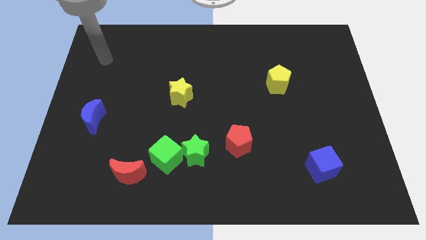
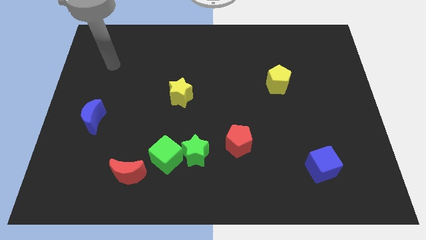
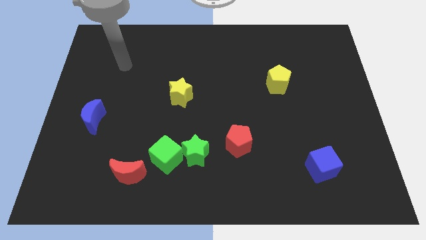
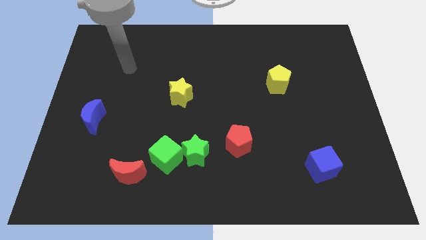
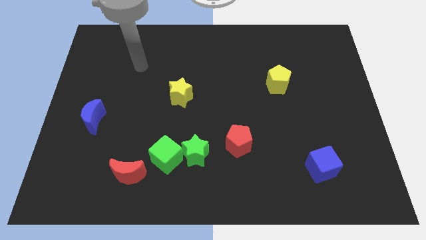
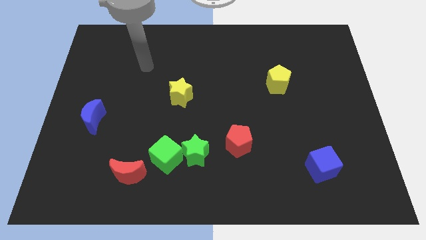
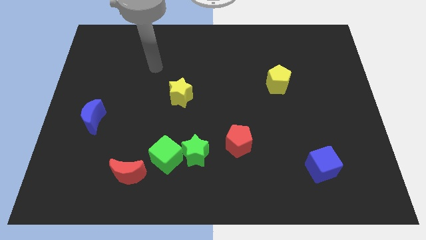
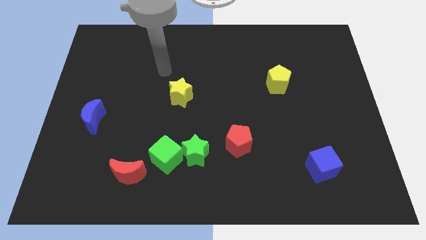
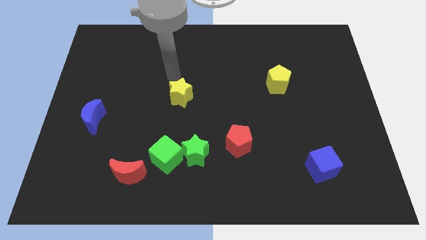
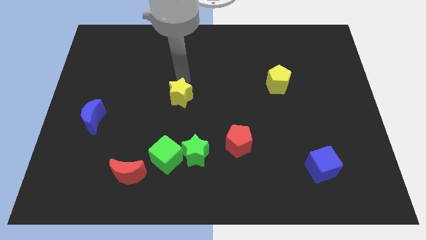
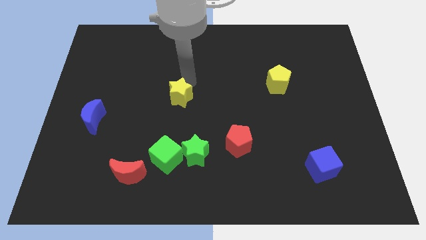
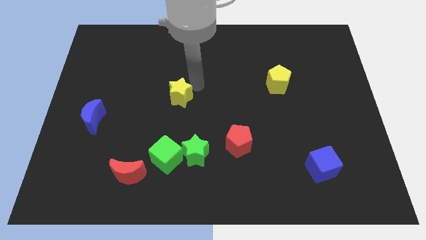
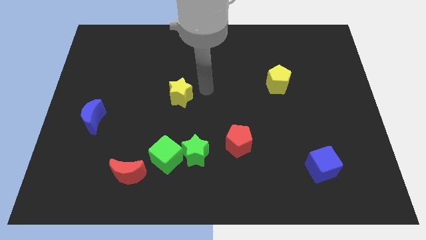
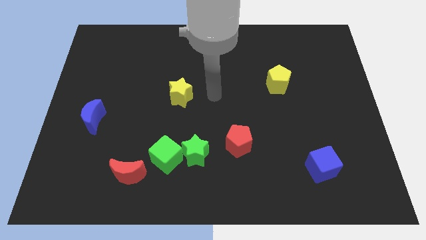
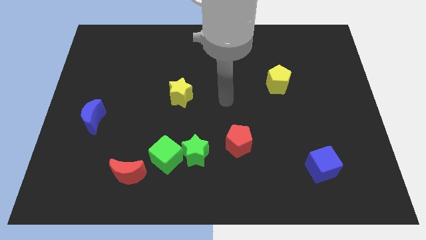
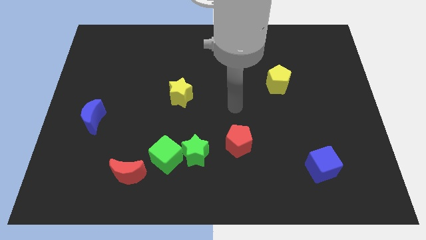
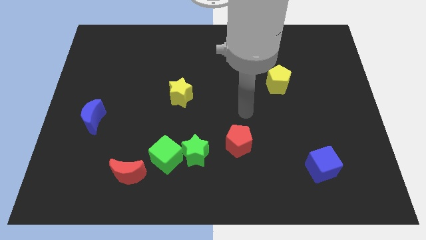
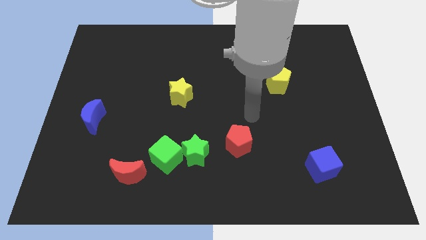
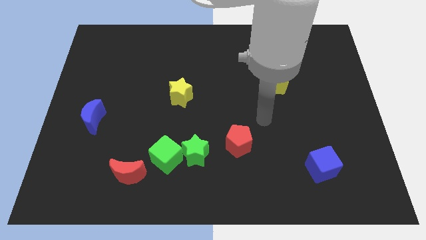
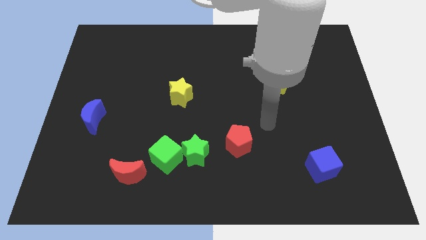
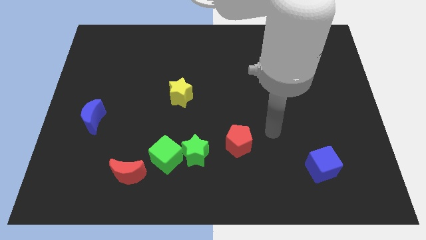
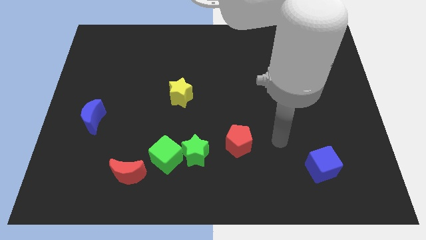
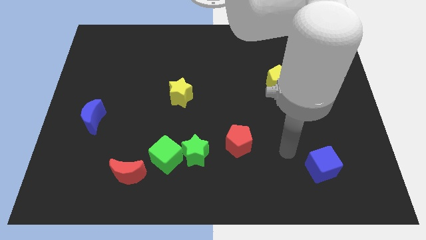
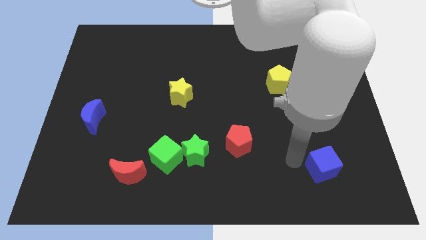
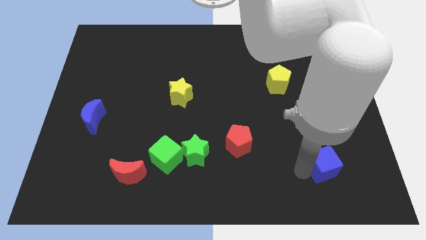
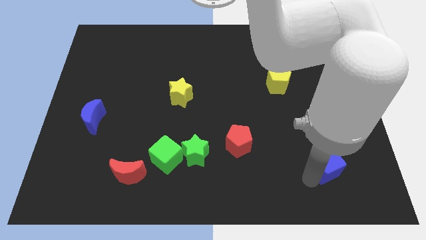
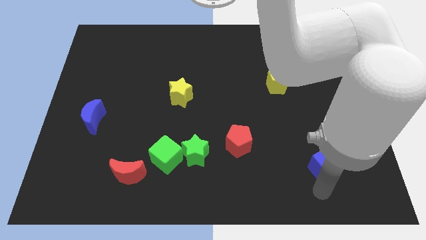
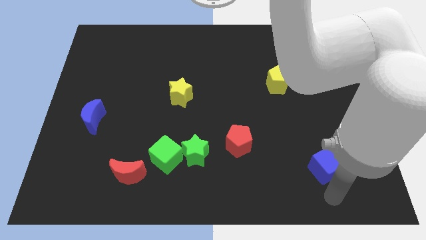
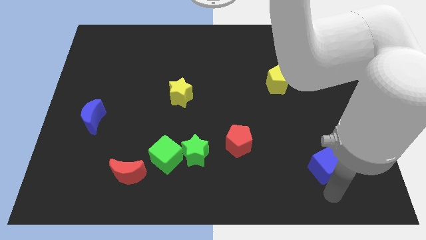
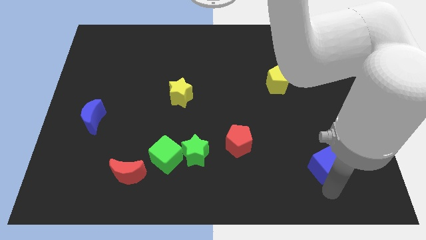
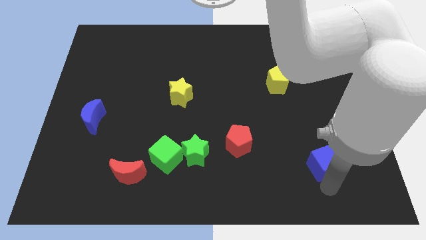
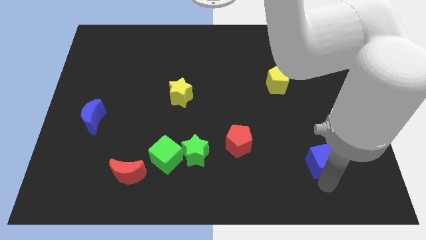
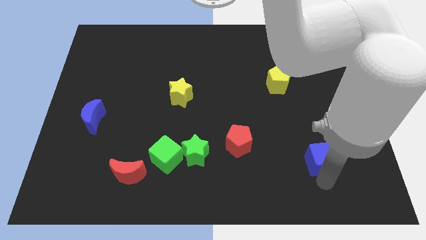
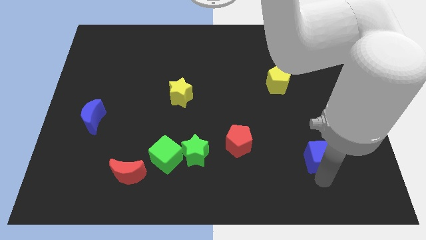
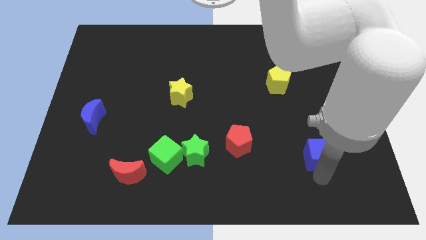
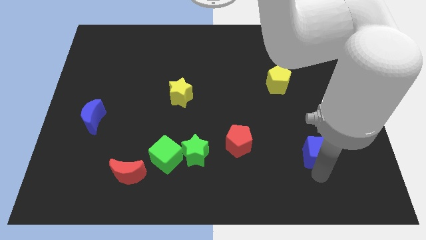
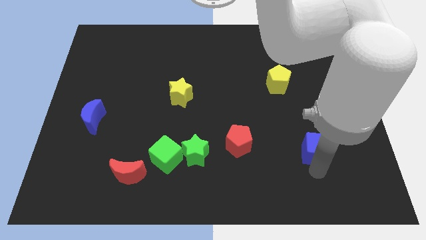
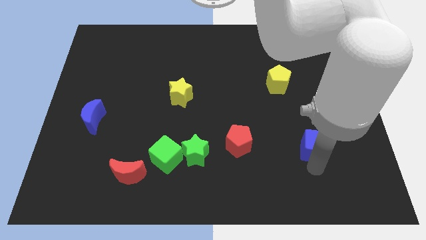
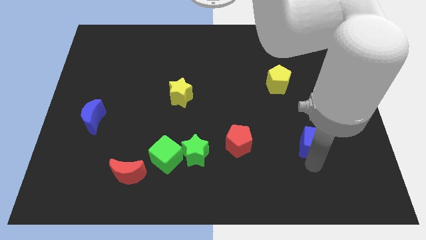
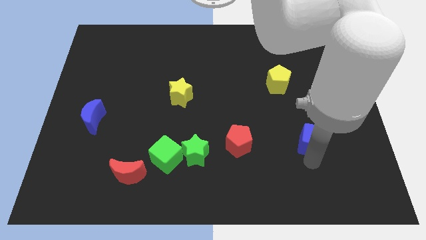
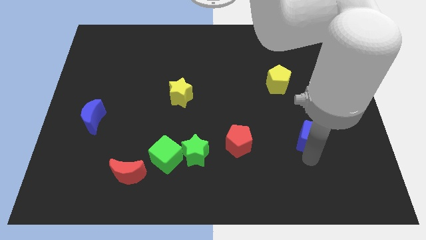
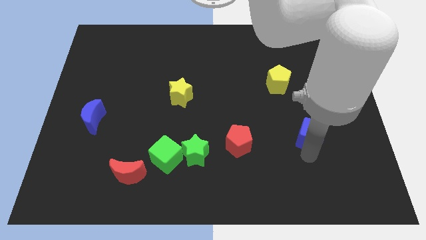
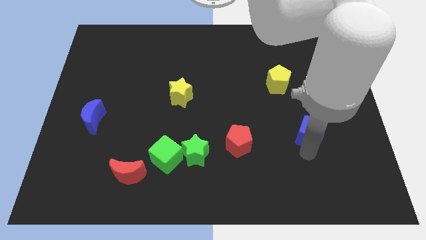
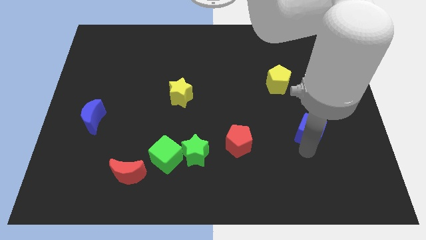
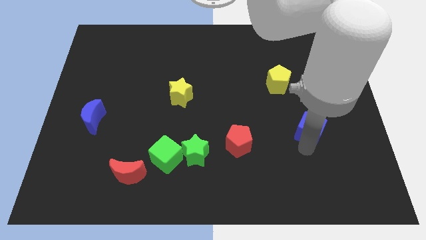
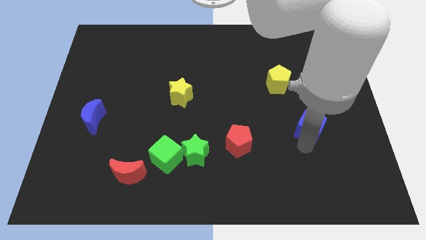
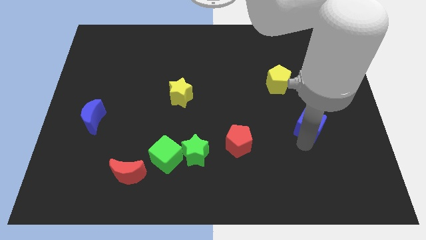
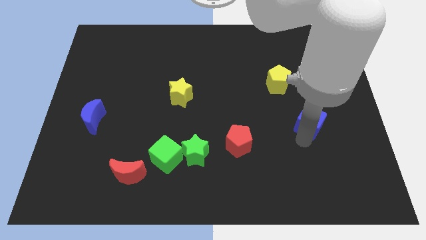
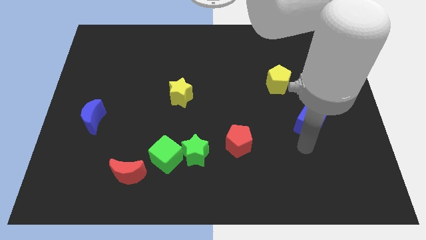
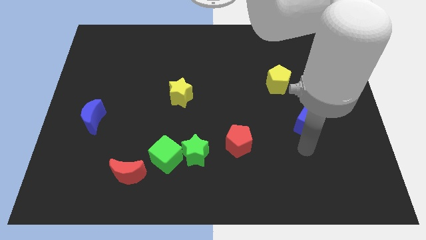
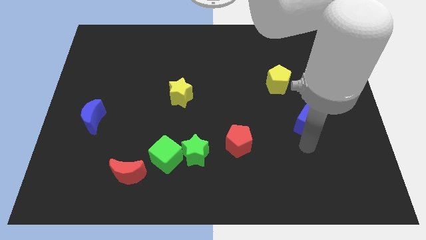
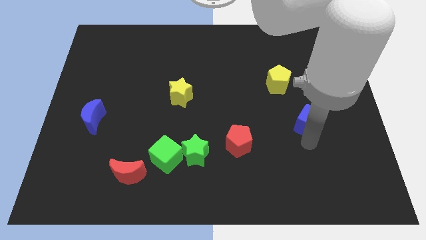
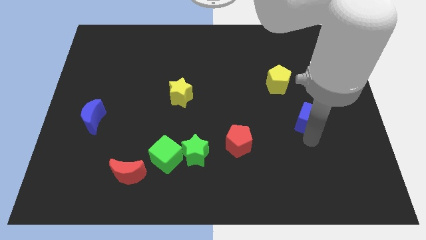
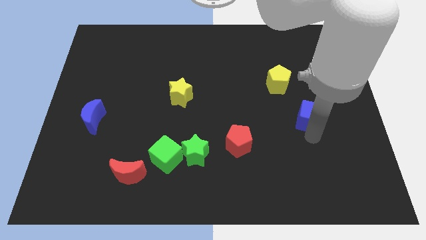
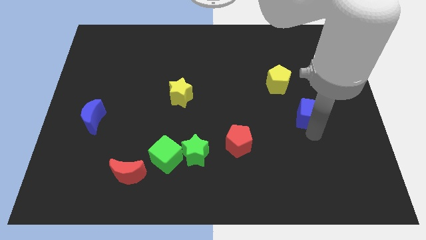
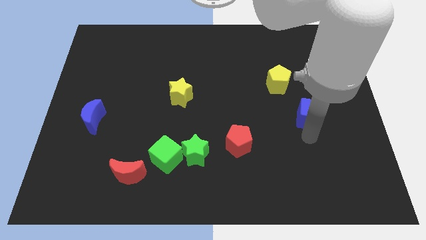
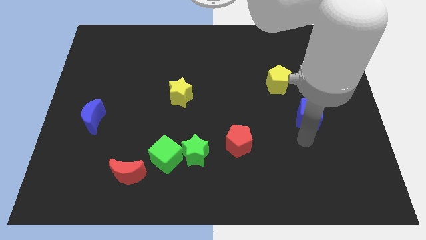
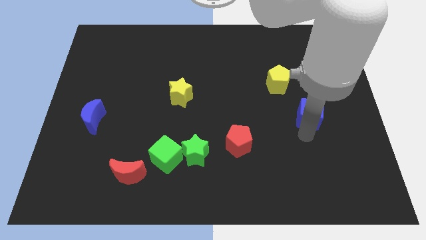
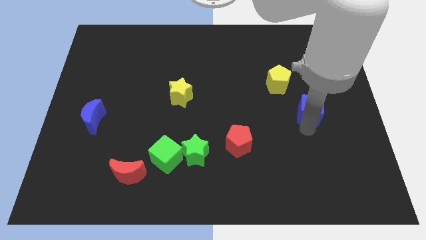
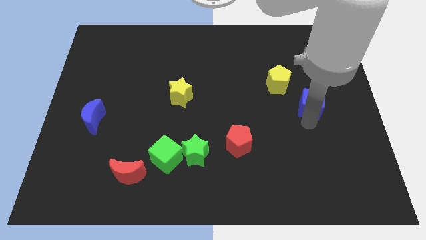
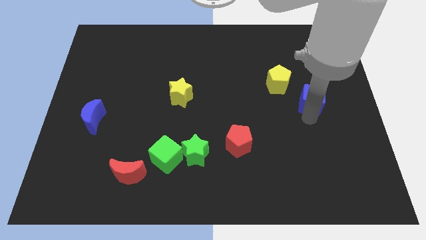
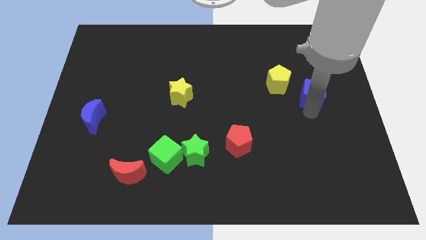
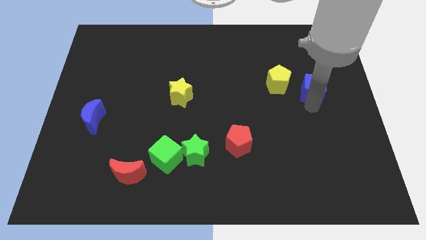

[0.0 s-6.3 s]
move the blue cube up

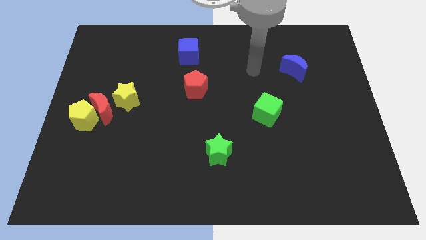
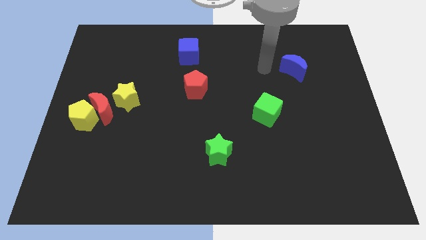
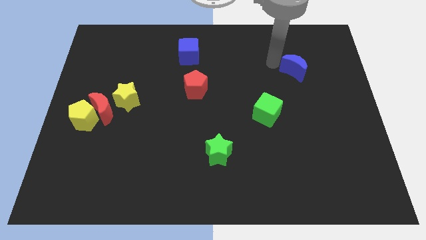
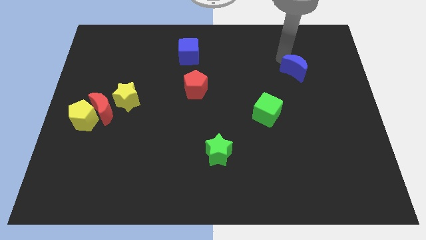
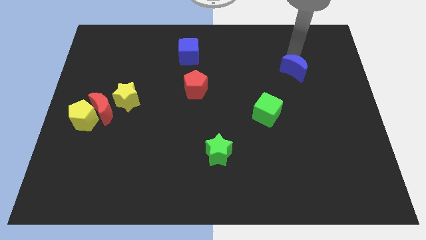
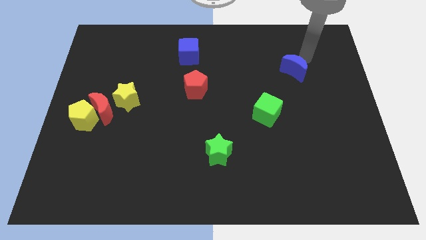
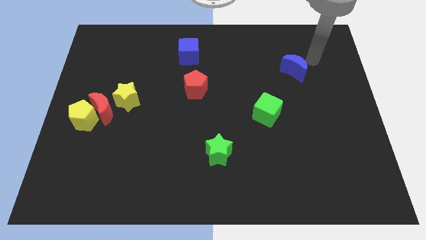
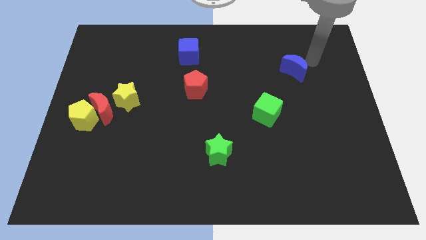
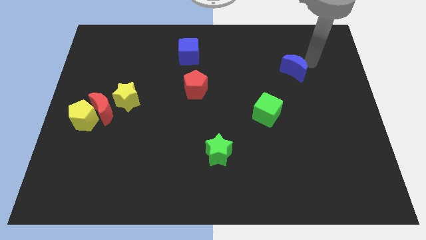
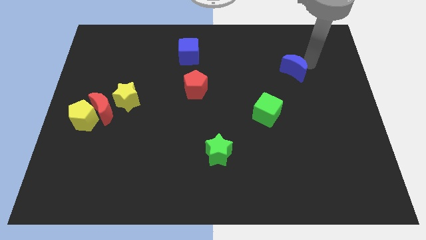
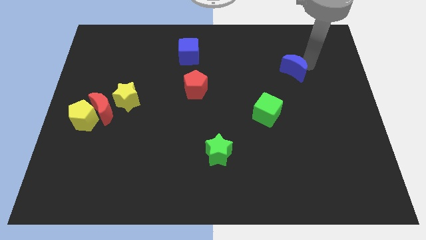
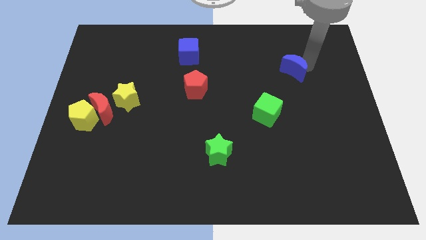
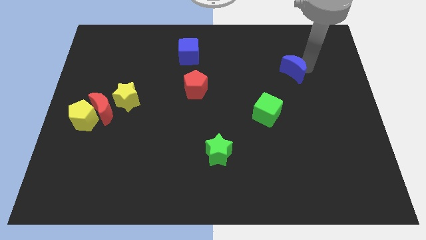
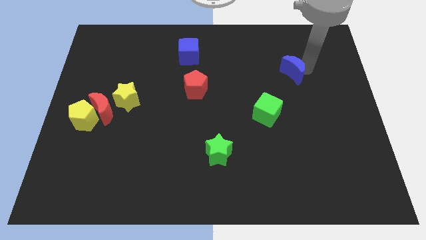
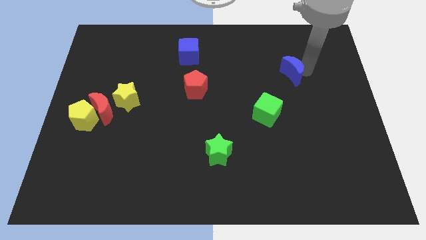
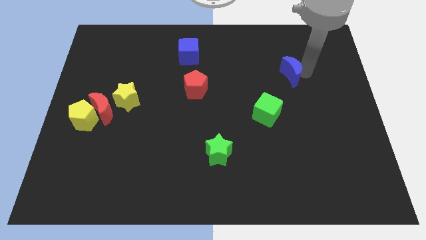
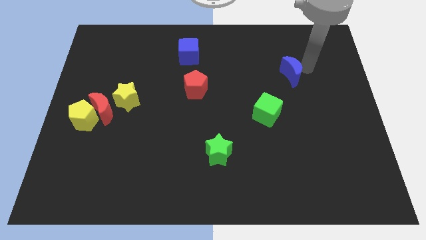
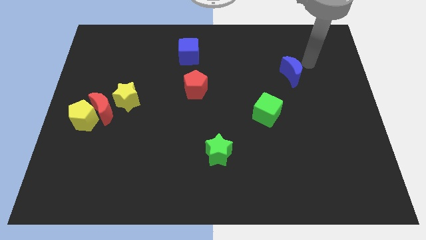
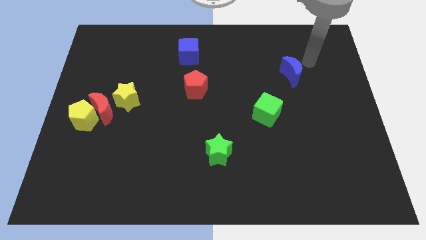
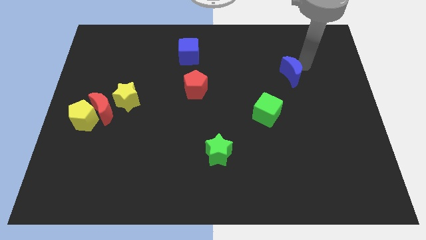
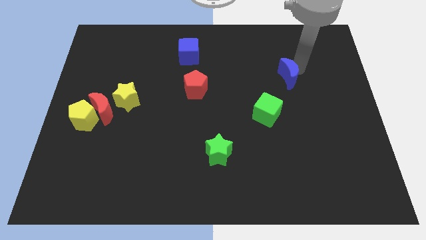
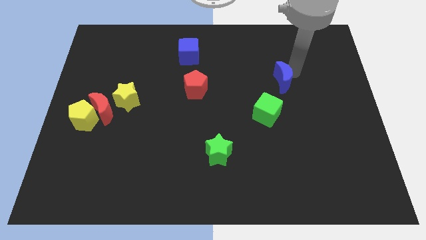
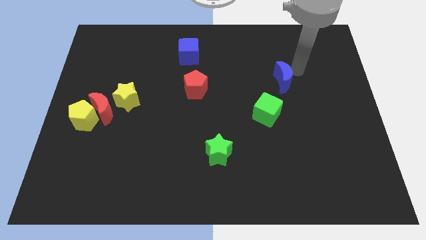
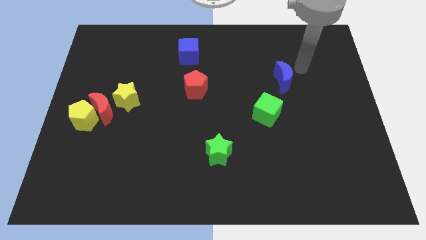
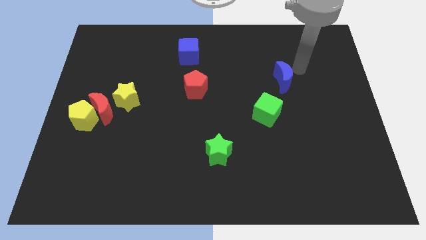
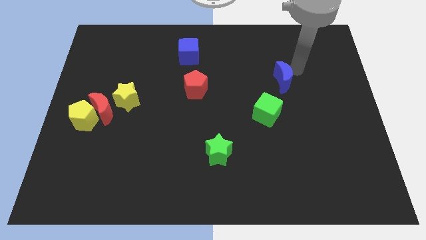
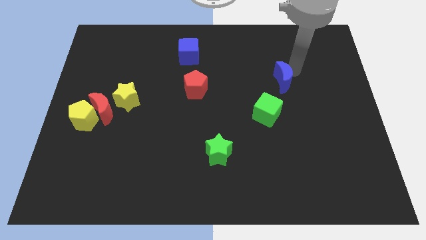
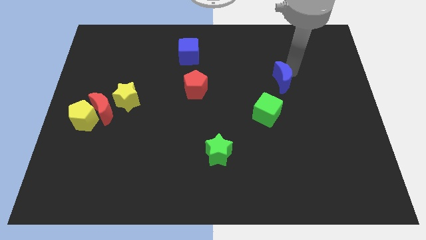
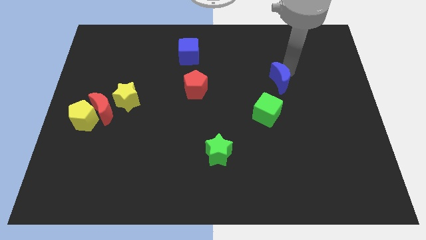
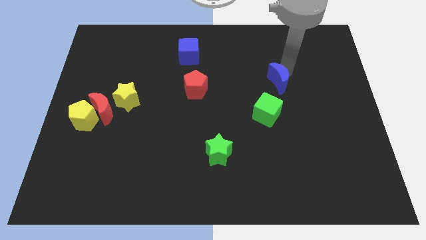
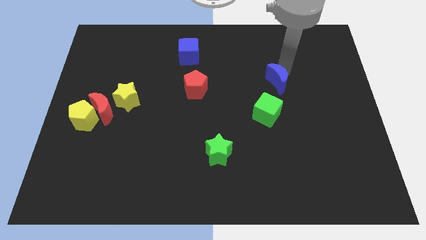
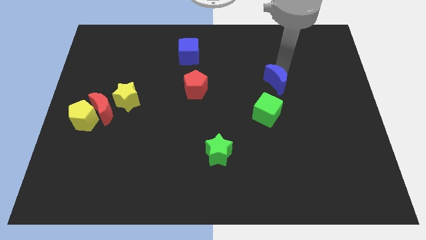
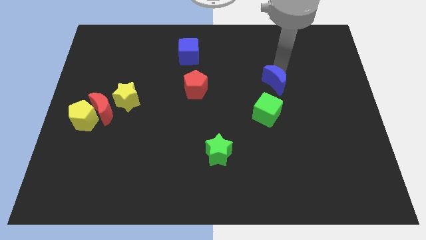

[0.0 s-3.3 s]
move the blue moon diagonally down and left slightly
